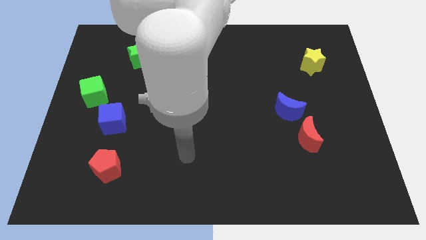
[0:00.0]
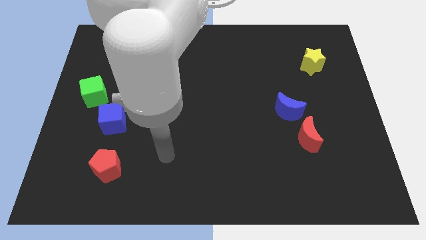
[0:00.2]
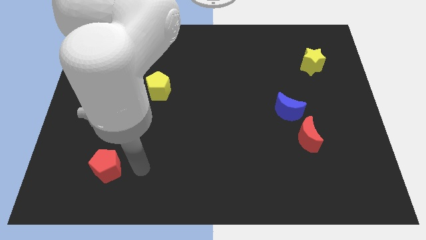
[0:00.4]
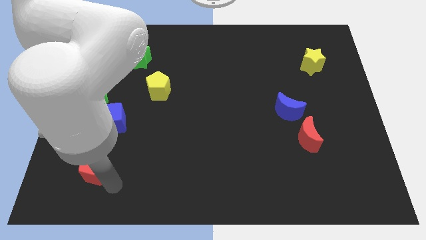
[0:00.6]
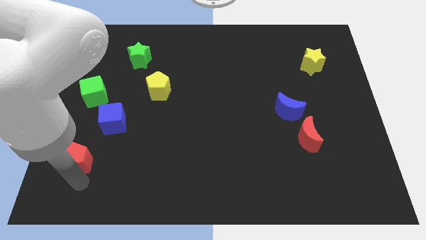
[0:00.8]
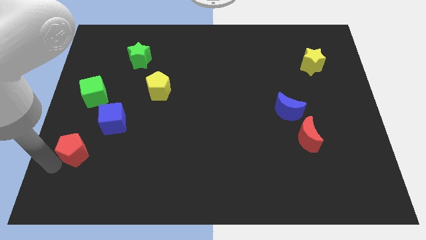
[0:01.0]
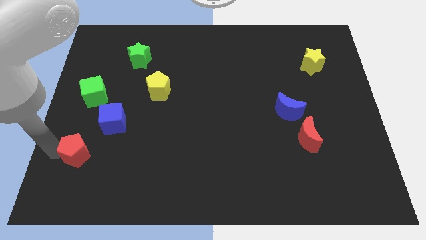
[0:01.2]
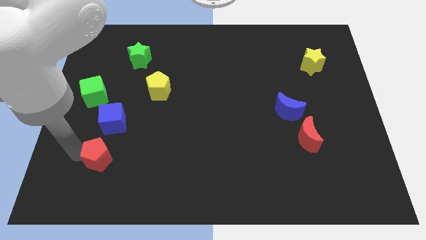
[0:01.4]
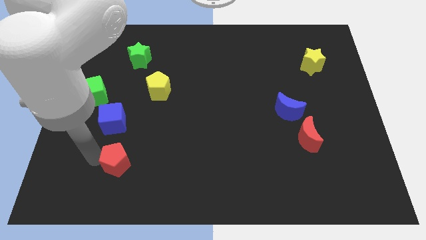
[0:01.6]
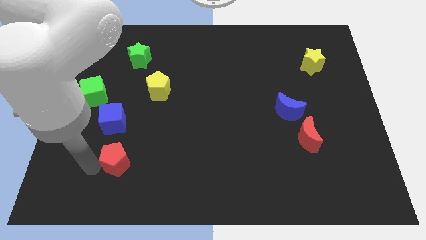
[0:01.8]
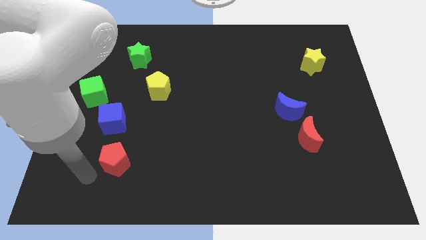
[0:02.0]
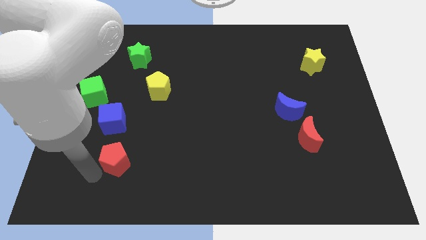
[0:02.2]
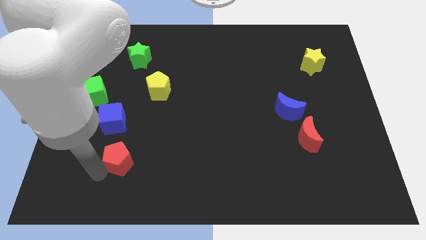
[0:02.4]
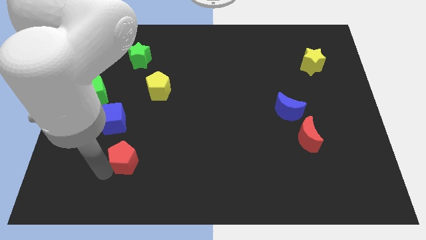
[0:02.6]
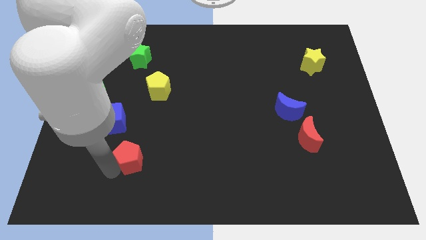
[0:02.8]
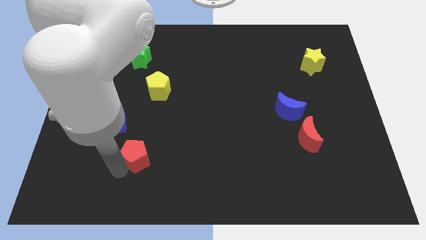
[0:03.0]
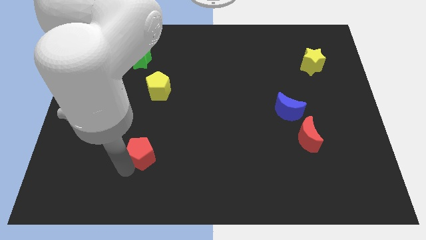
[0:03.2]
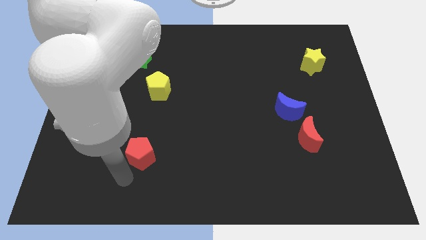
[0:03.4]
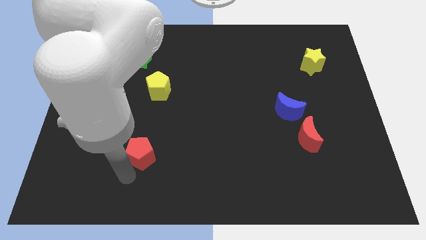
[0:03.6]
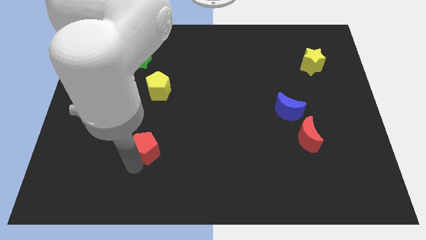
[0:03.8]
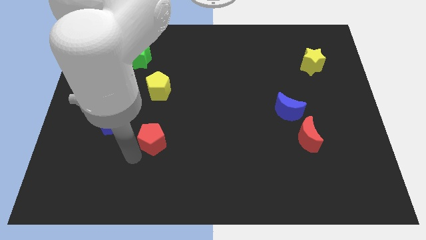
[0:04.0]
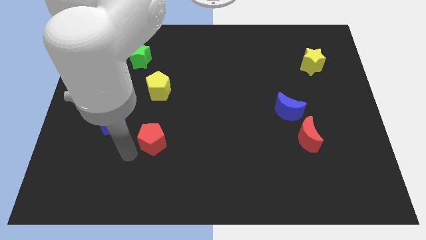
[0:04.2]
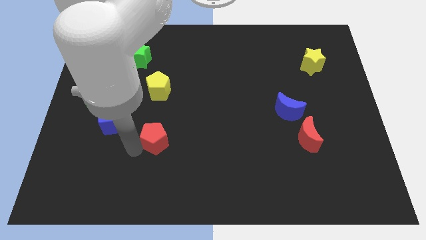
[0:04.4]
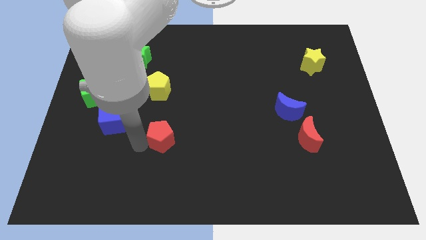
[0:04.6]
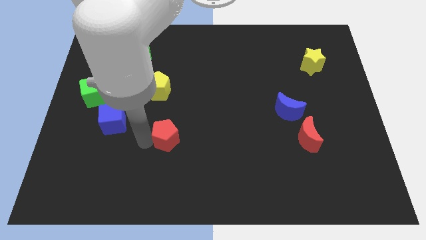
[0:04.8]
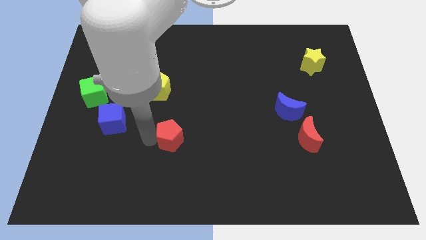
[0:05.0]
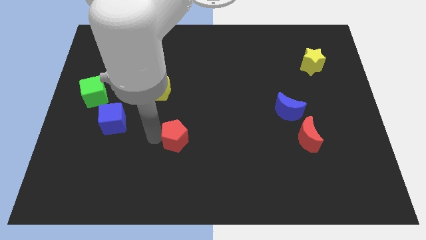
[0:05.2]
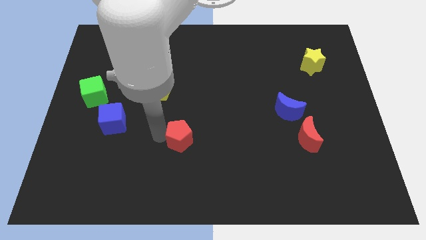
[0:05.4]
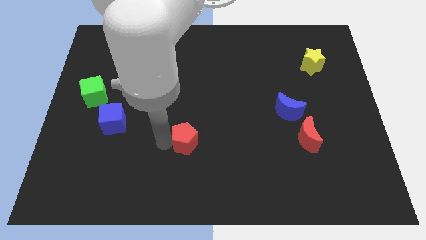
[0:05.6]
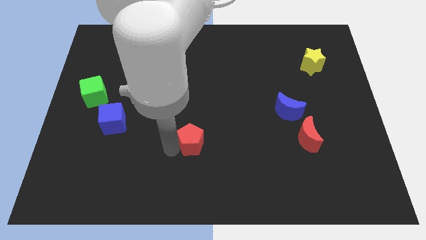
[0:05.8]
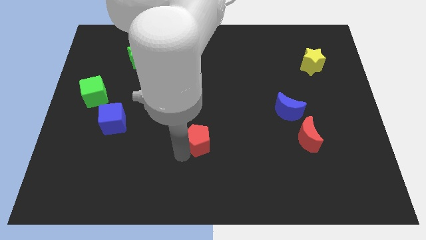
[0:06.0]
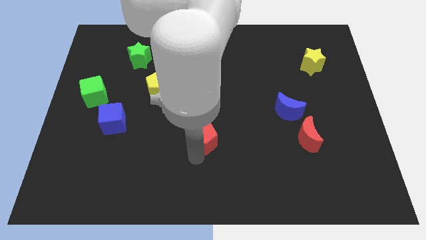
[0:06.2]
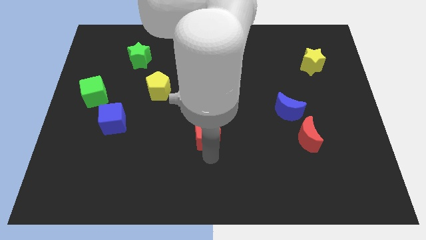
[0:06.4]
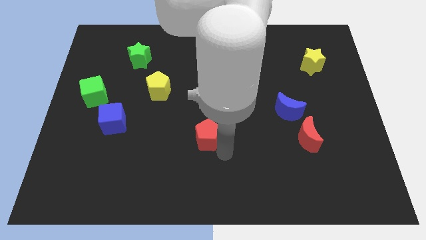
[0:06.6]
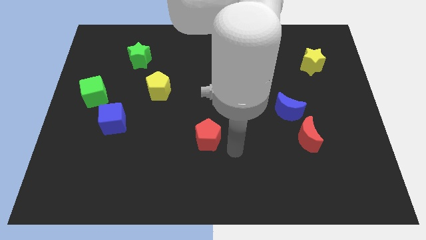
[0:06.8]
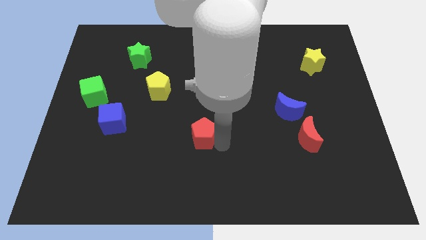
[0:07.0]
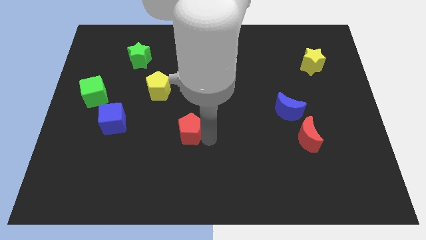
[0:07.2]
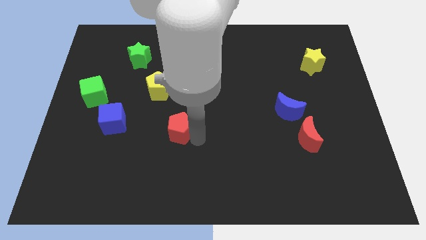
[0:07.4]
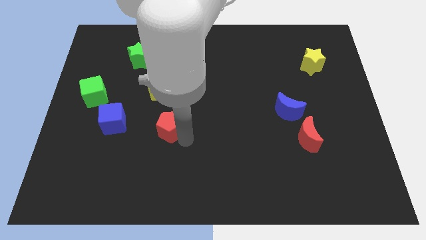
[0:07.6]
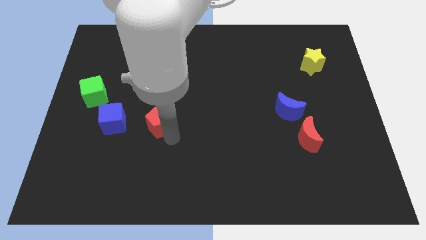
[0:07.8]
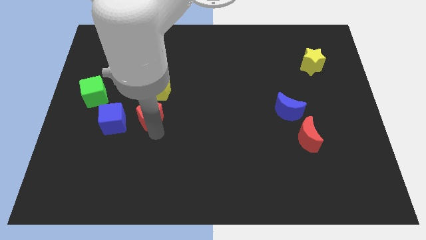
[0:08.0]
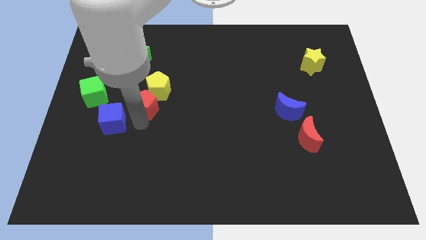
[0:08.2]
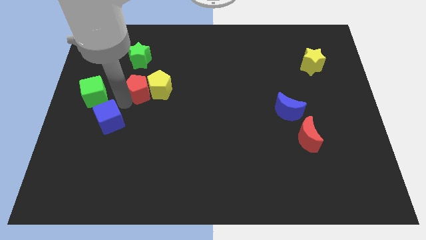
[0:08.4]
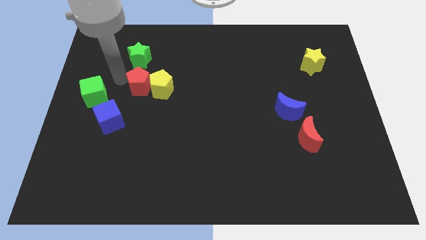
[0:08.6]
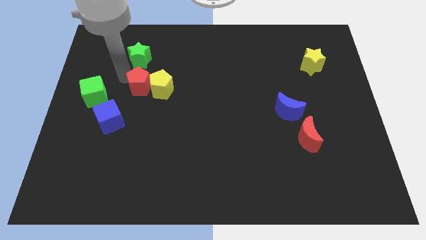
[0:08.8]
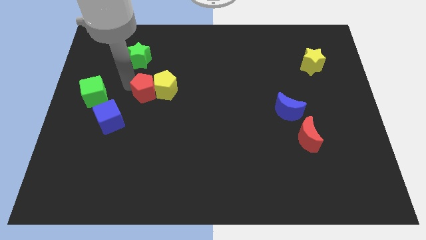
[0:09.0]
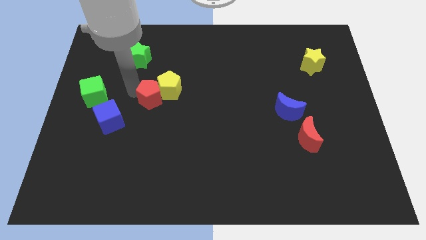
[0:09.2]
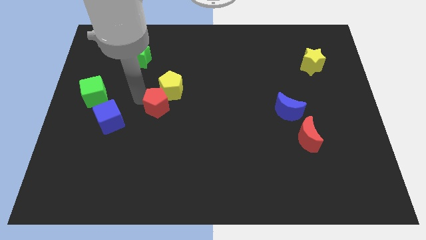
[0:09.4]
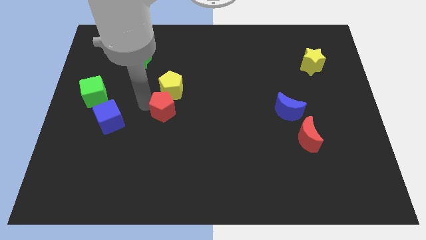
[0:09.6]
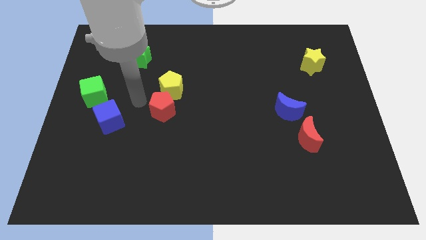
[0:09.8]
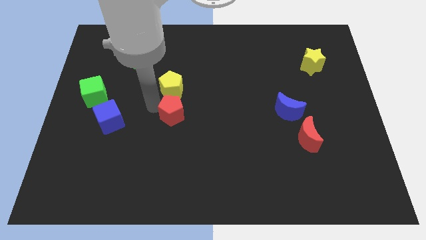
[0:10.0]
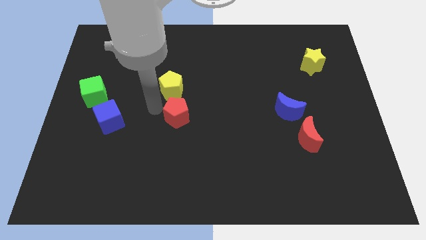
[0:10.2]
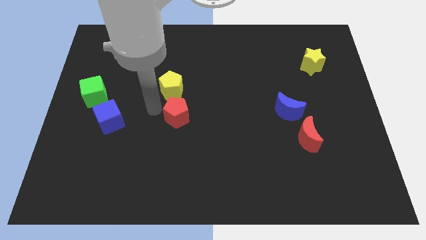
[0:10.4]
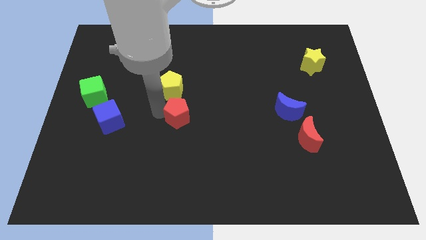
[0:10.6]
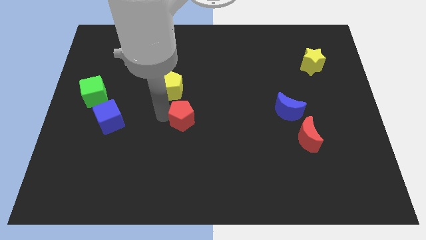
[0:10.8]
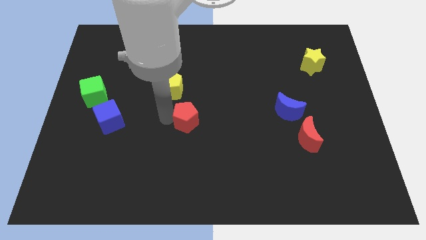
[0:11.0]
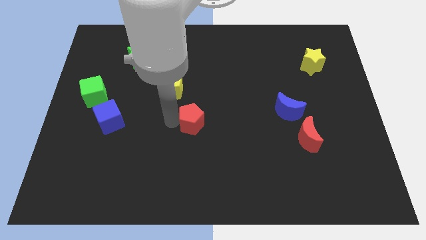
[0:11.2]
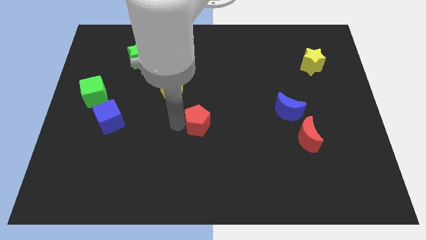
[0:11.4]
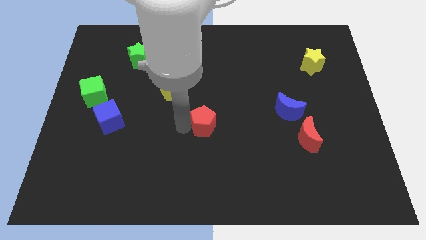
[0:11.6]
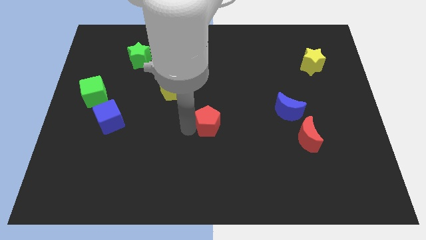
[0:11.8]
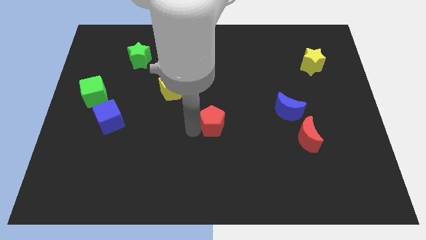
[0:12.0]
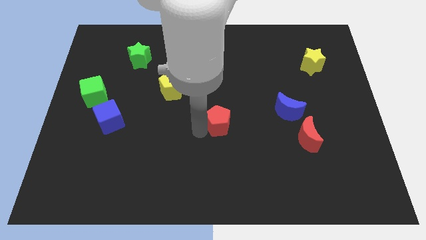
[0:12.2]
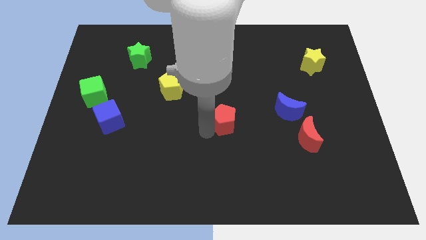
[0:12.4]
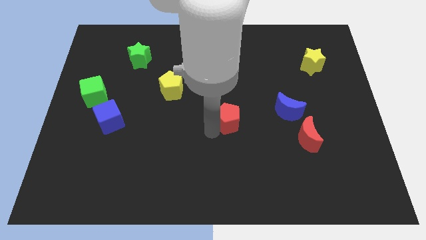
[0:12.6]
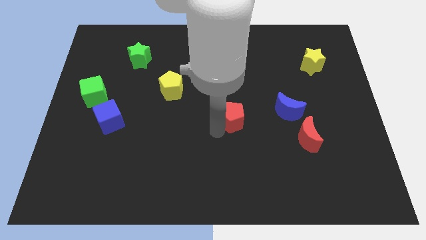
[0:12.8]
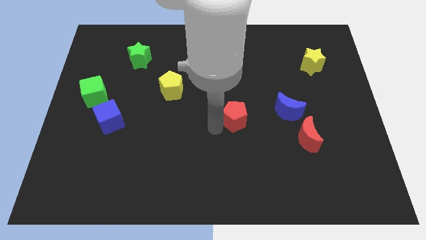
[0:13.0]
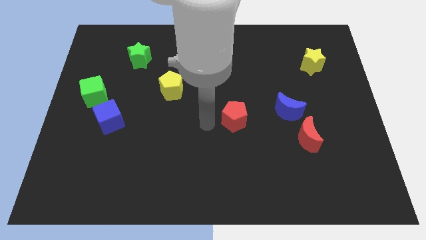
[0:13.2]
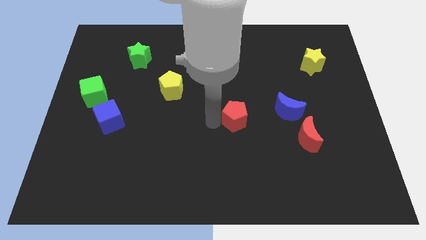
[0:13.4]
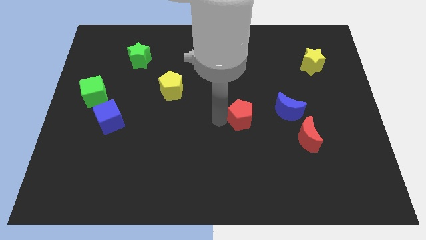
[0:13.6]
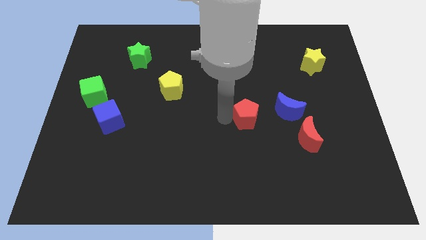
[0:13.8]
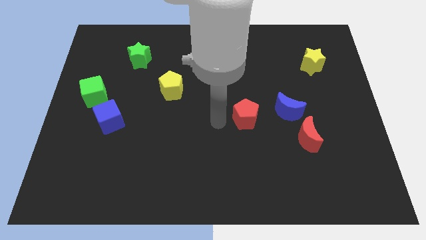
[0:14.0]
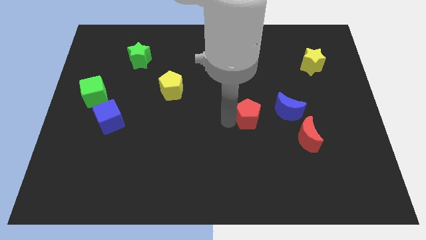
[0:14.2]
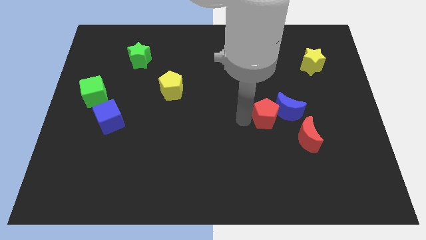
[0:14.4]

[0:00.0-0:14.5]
slide the red pentagon close to the blue moon
